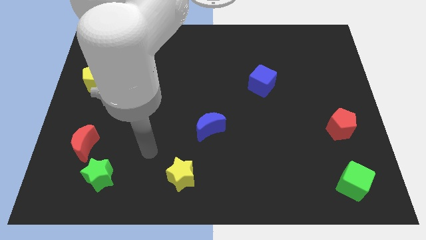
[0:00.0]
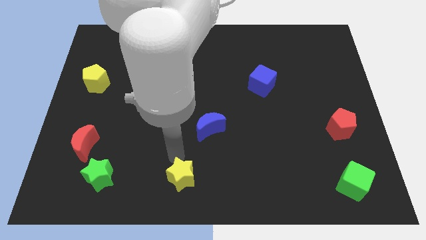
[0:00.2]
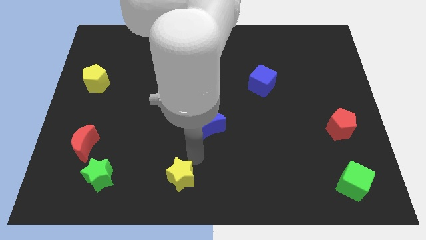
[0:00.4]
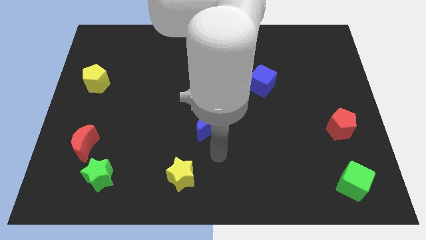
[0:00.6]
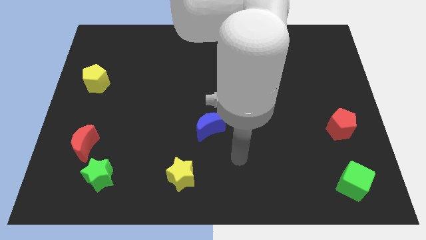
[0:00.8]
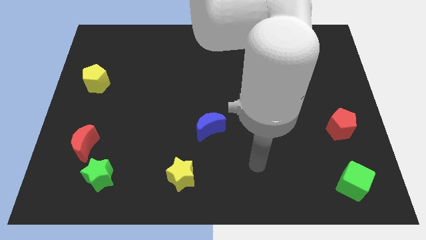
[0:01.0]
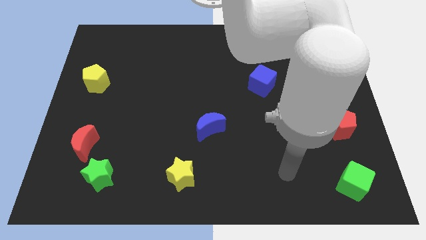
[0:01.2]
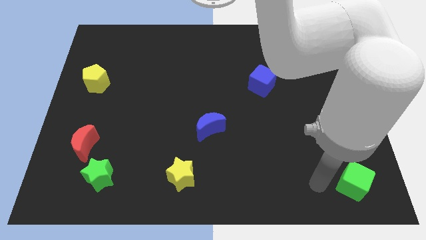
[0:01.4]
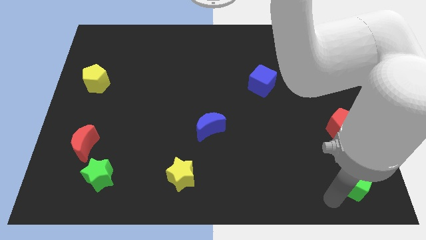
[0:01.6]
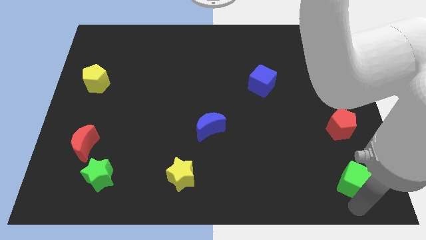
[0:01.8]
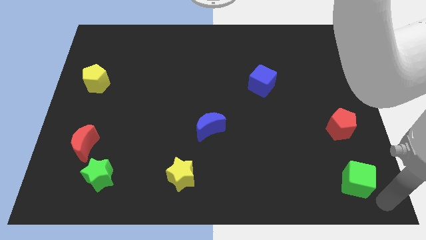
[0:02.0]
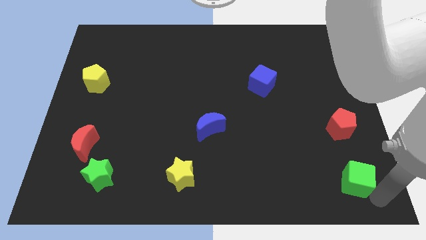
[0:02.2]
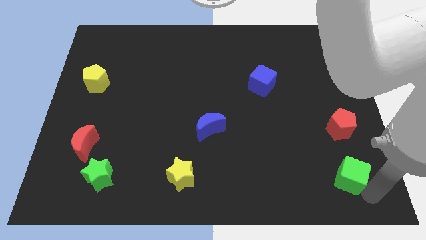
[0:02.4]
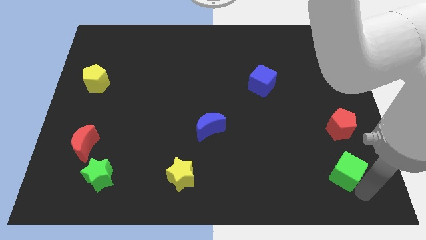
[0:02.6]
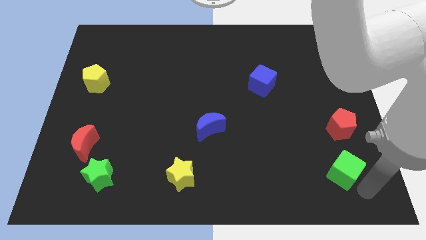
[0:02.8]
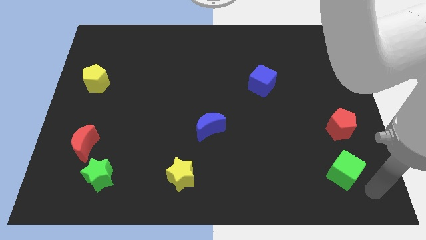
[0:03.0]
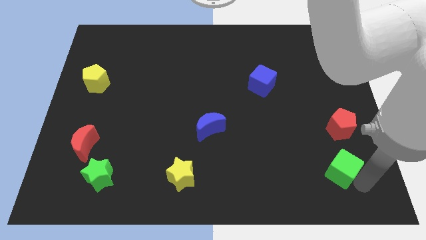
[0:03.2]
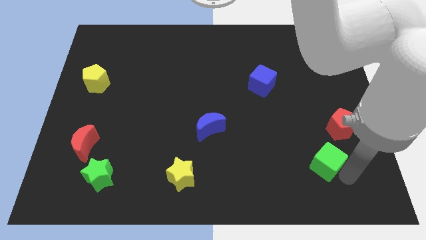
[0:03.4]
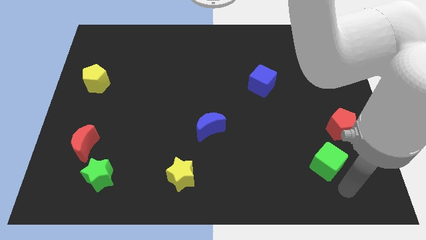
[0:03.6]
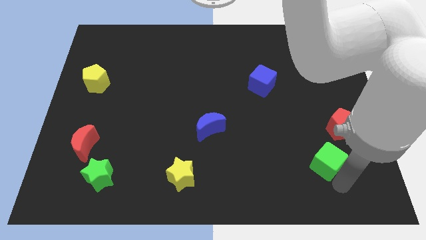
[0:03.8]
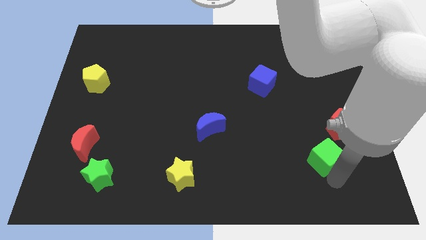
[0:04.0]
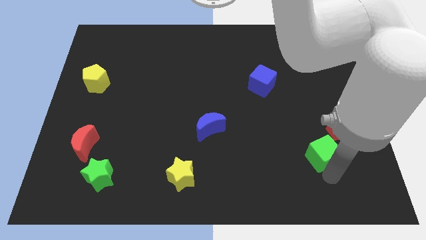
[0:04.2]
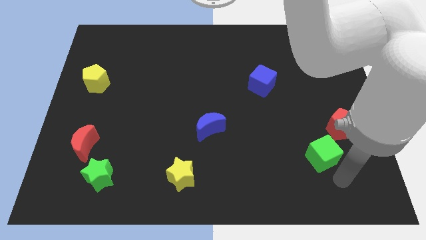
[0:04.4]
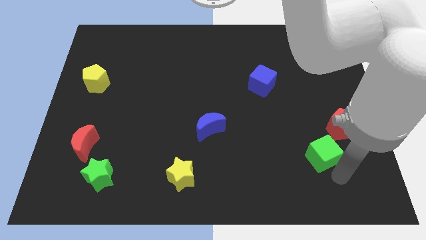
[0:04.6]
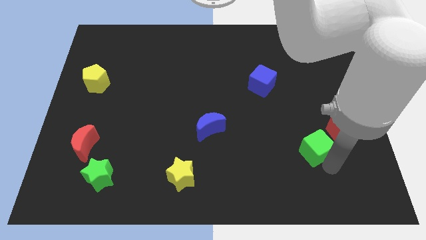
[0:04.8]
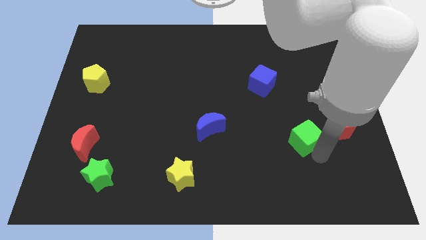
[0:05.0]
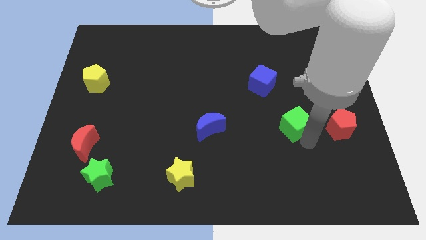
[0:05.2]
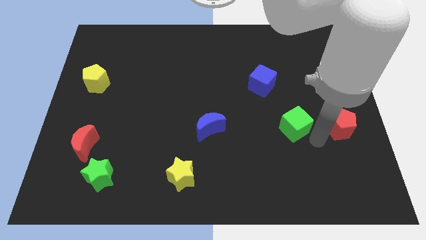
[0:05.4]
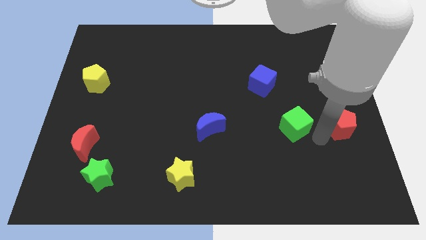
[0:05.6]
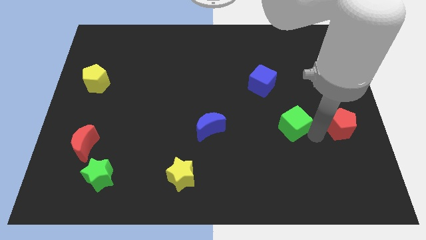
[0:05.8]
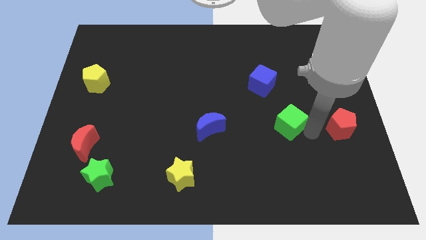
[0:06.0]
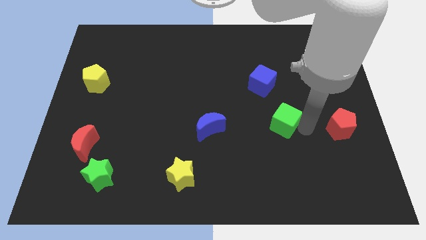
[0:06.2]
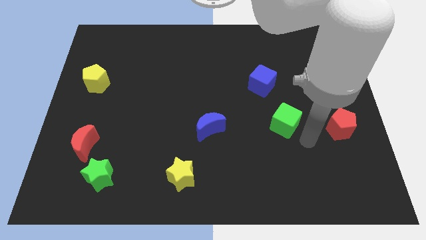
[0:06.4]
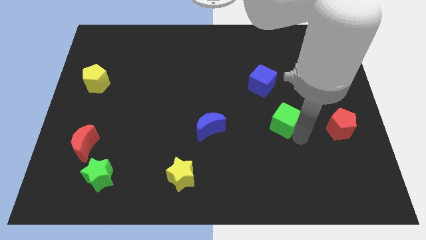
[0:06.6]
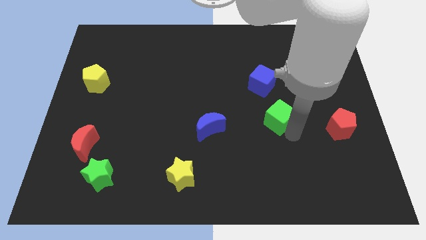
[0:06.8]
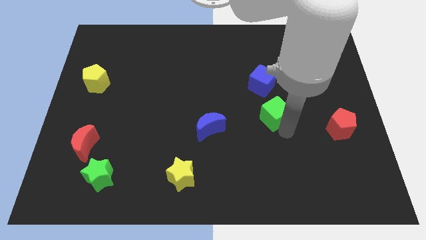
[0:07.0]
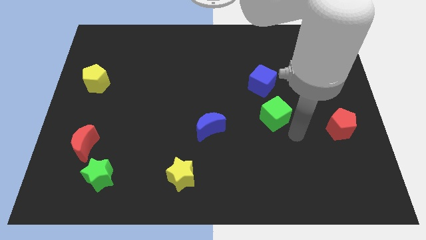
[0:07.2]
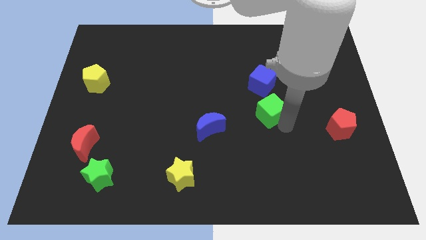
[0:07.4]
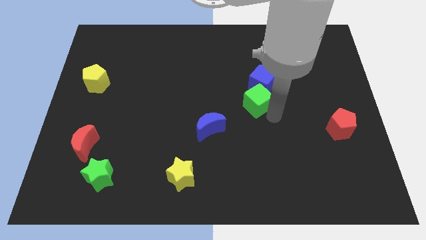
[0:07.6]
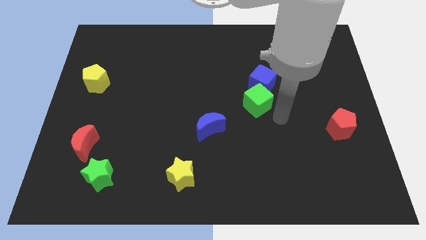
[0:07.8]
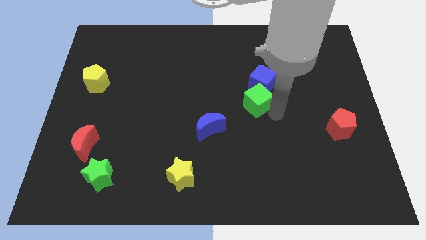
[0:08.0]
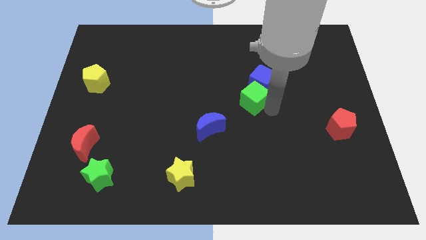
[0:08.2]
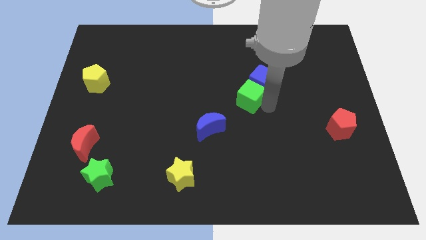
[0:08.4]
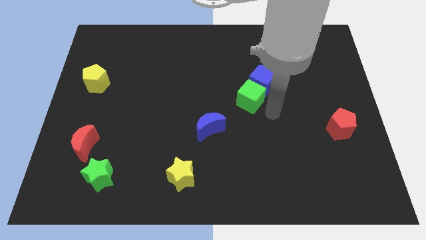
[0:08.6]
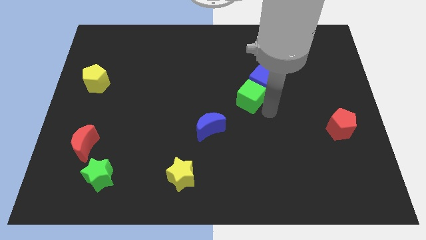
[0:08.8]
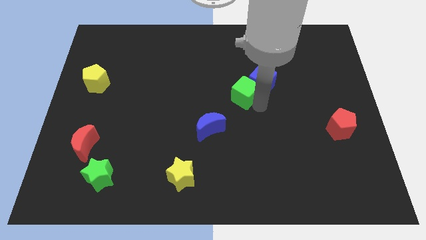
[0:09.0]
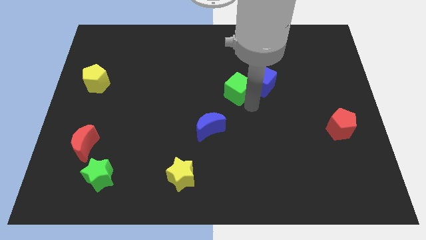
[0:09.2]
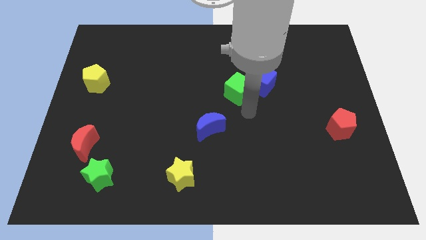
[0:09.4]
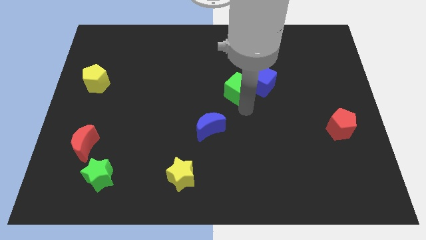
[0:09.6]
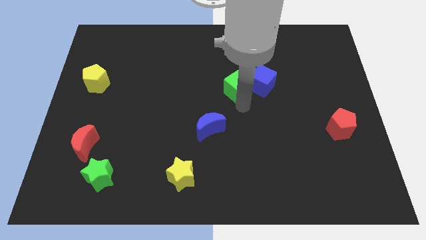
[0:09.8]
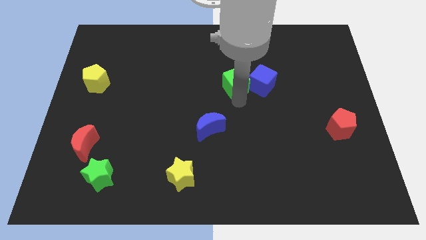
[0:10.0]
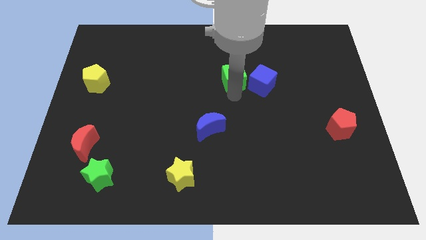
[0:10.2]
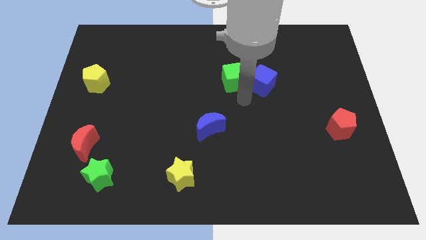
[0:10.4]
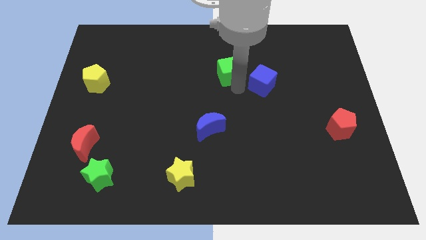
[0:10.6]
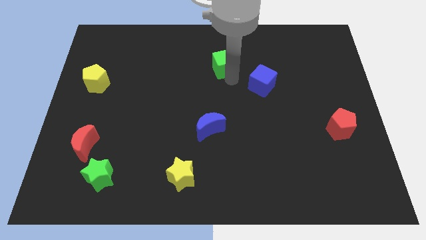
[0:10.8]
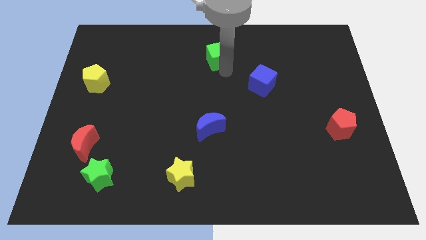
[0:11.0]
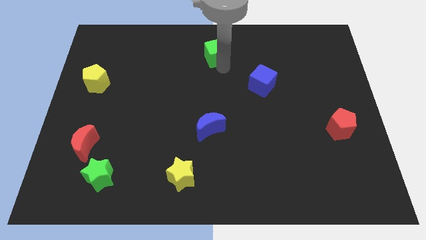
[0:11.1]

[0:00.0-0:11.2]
move the green cube to the top

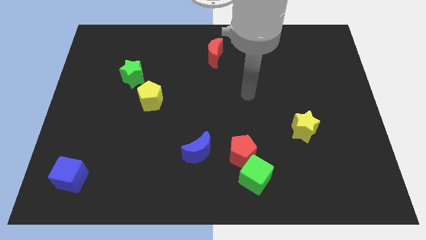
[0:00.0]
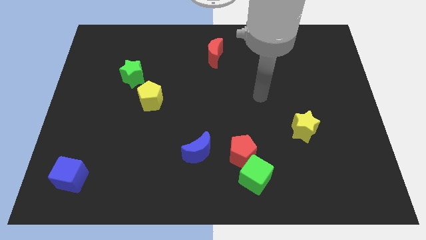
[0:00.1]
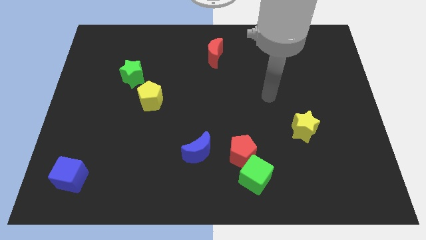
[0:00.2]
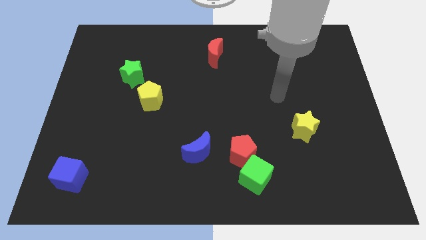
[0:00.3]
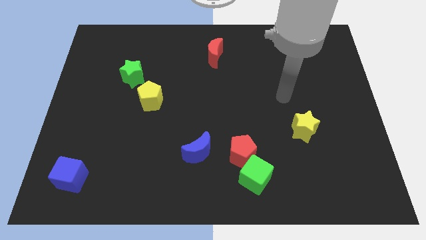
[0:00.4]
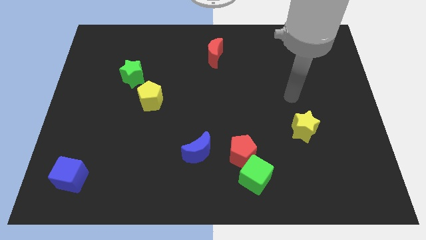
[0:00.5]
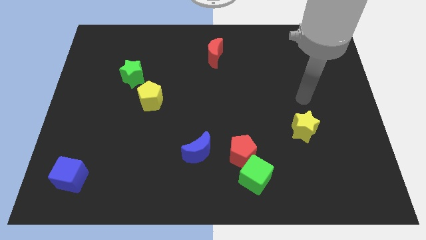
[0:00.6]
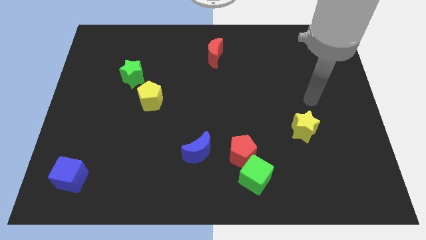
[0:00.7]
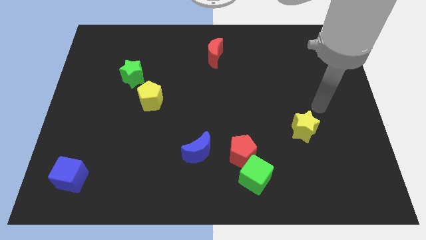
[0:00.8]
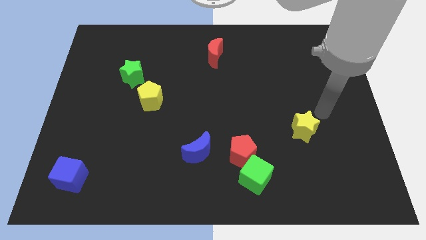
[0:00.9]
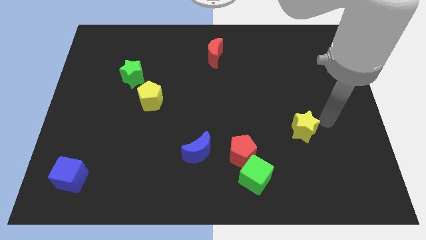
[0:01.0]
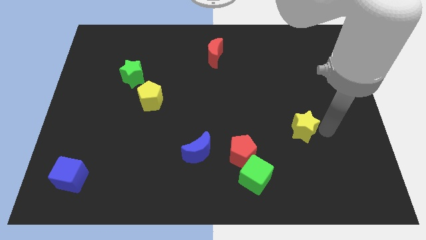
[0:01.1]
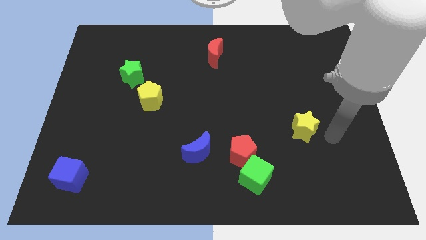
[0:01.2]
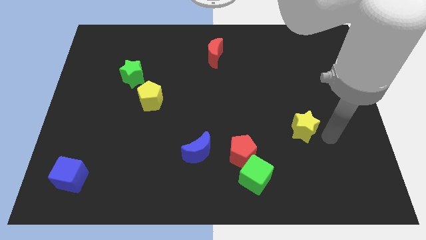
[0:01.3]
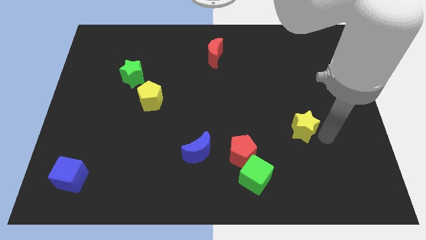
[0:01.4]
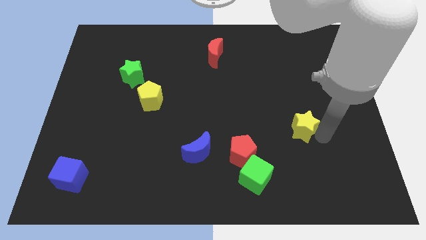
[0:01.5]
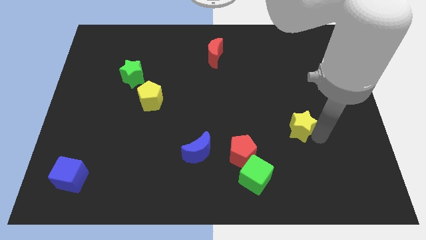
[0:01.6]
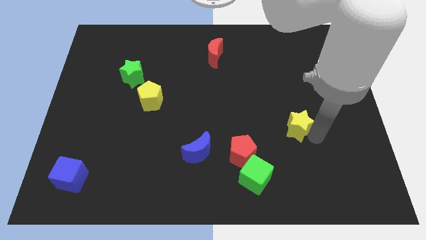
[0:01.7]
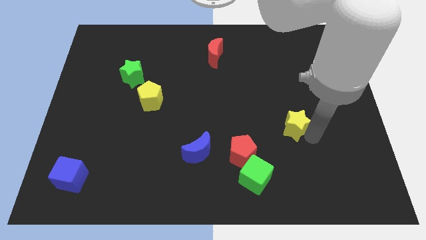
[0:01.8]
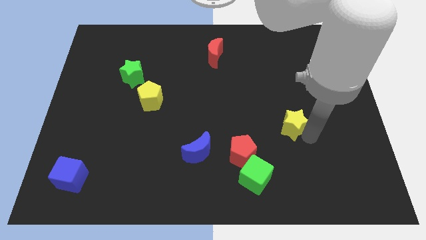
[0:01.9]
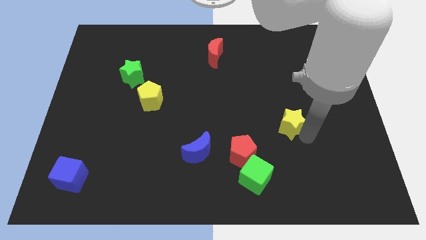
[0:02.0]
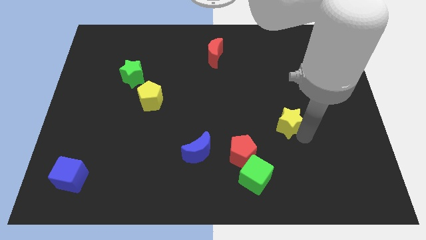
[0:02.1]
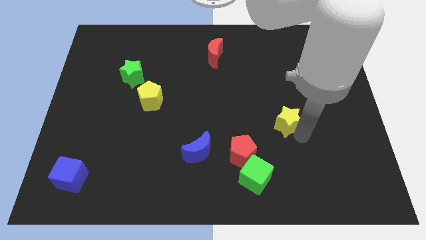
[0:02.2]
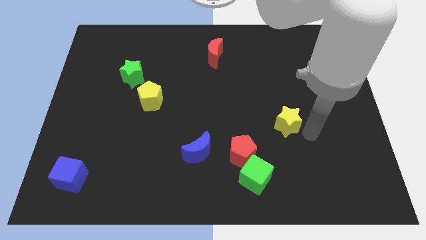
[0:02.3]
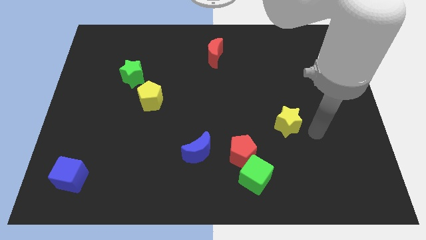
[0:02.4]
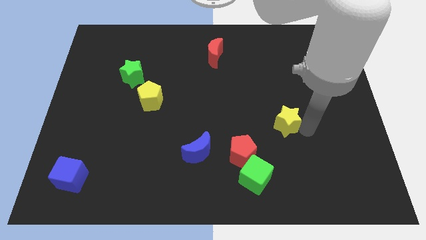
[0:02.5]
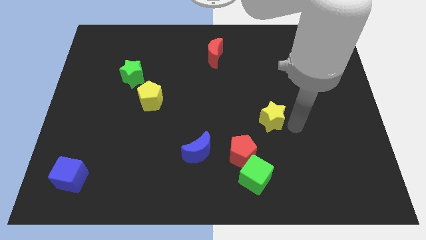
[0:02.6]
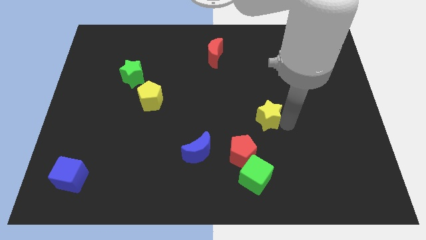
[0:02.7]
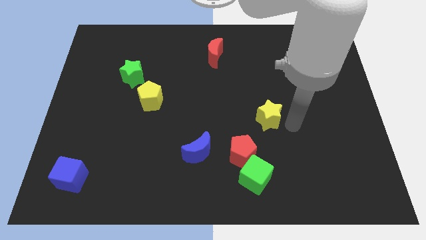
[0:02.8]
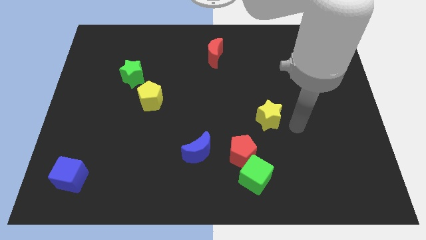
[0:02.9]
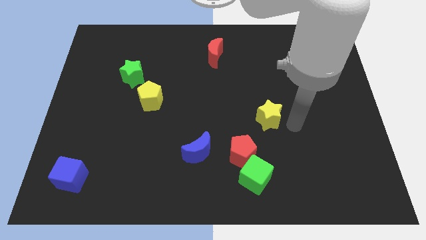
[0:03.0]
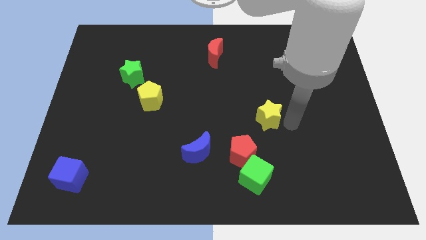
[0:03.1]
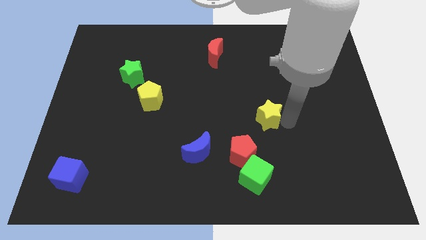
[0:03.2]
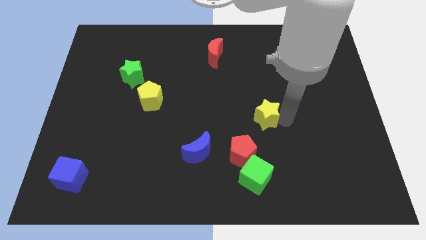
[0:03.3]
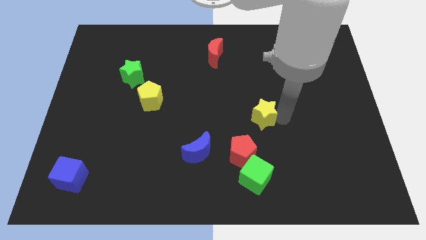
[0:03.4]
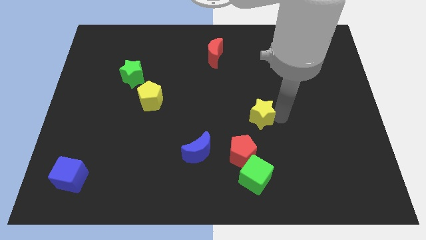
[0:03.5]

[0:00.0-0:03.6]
slide the yellow star to the middle of the board
